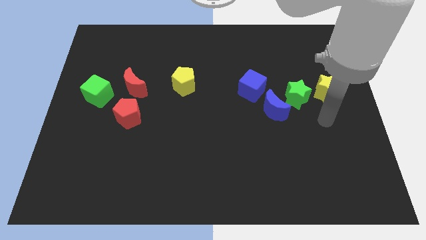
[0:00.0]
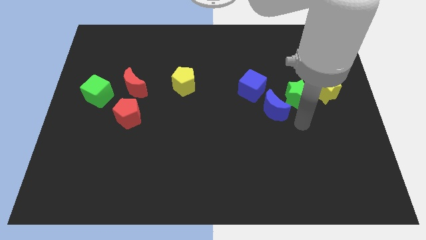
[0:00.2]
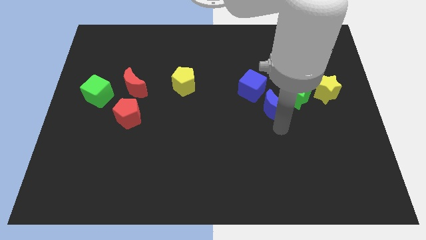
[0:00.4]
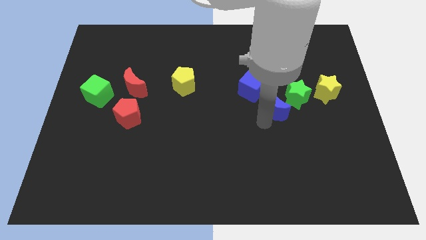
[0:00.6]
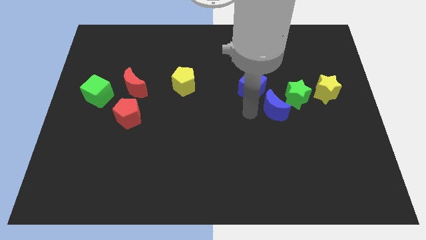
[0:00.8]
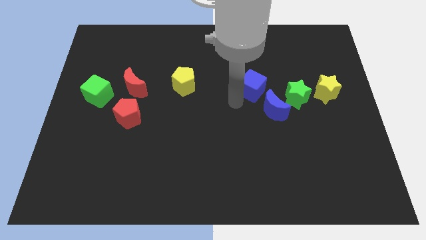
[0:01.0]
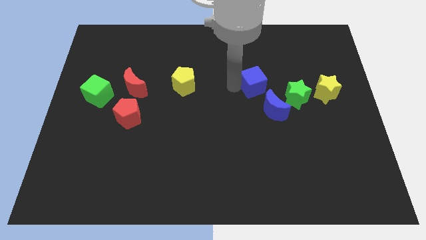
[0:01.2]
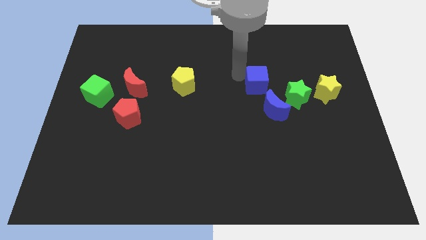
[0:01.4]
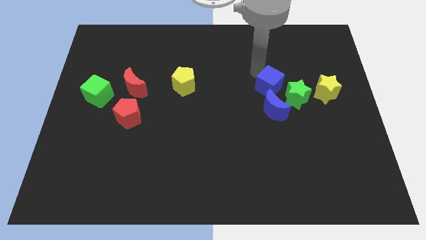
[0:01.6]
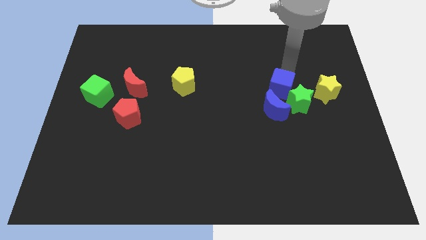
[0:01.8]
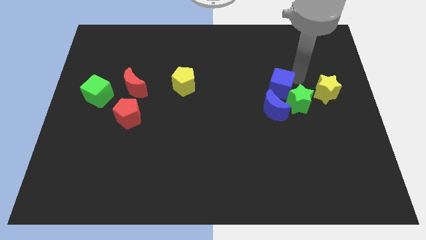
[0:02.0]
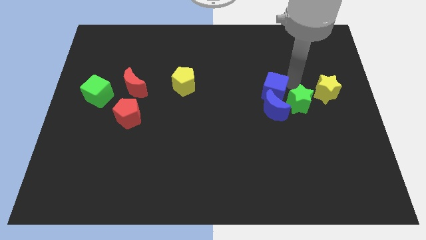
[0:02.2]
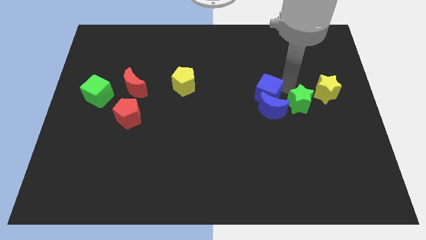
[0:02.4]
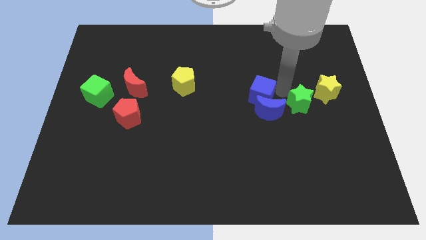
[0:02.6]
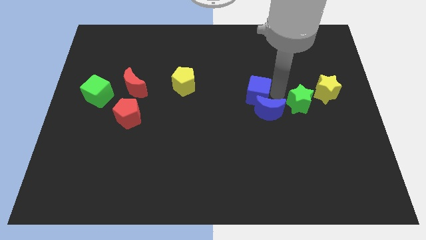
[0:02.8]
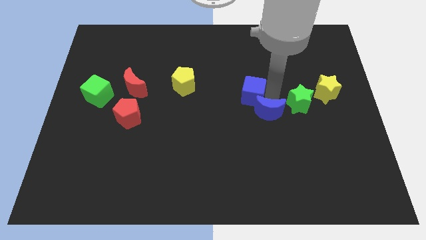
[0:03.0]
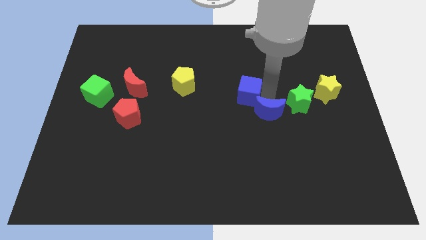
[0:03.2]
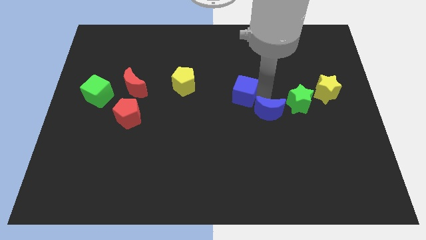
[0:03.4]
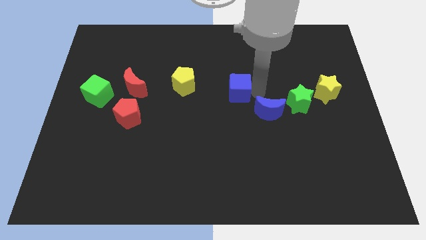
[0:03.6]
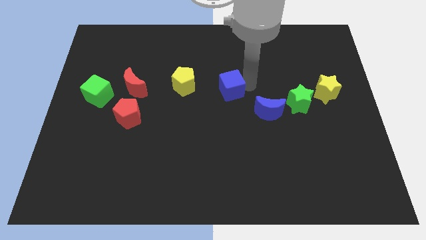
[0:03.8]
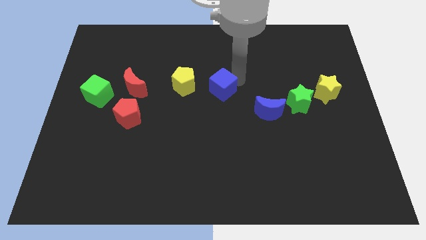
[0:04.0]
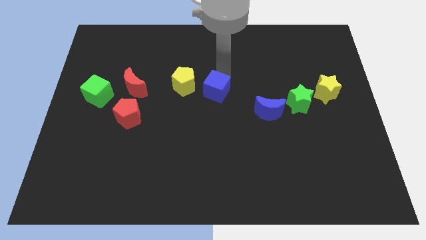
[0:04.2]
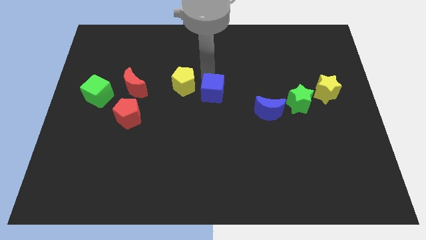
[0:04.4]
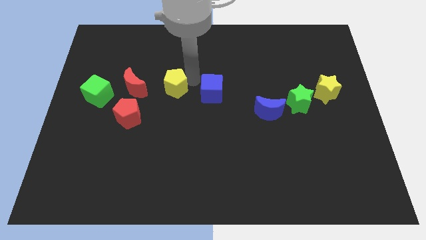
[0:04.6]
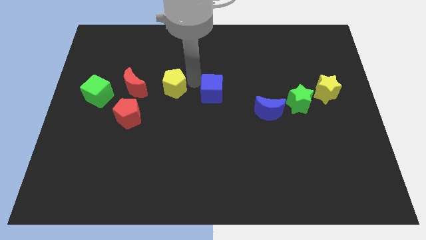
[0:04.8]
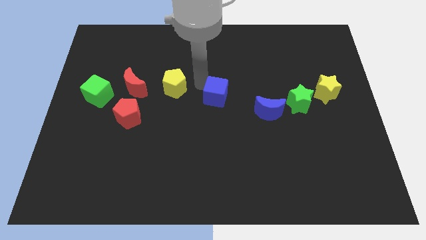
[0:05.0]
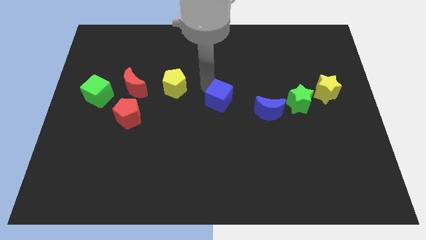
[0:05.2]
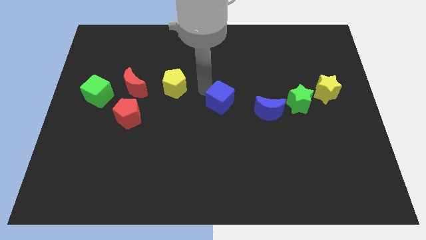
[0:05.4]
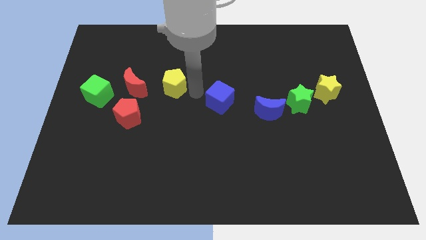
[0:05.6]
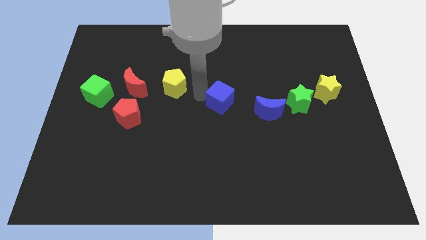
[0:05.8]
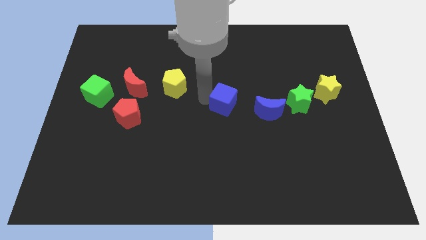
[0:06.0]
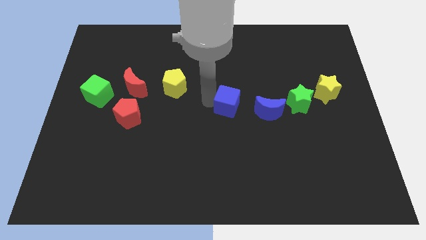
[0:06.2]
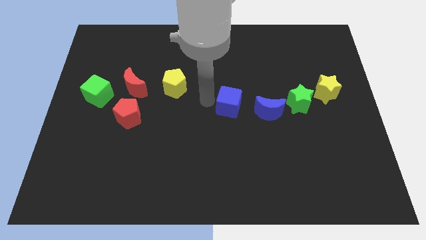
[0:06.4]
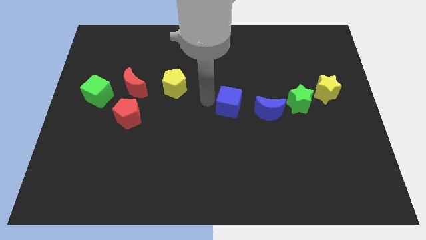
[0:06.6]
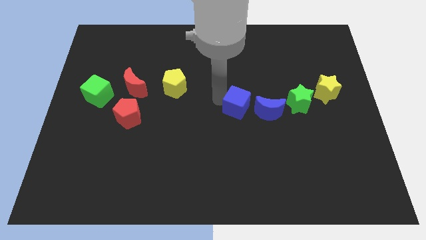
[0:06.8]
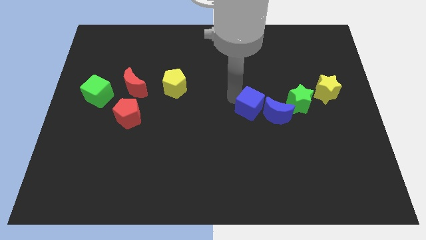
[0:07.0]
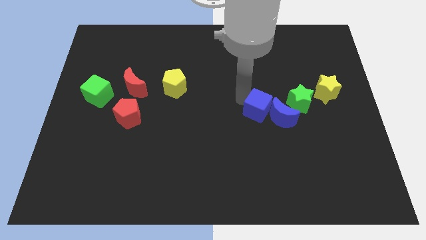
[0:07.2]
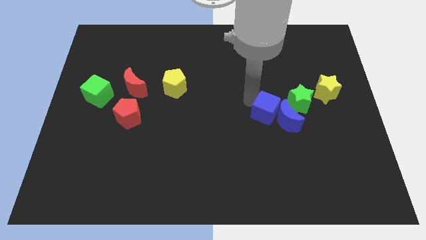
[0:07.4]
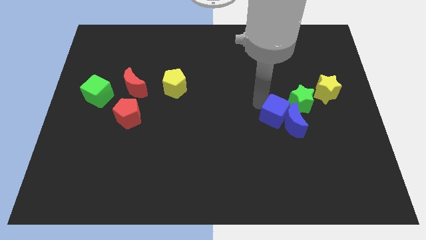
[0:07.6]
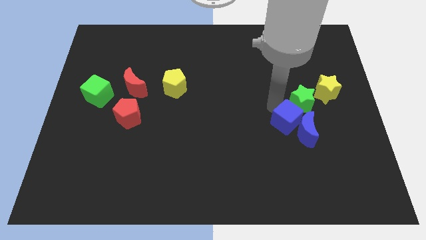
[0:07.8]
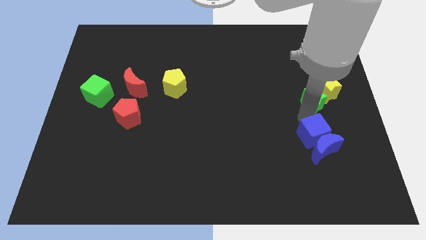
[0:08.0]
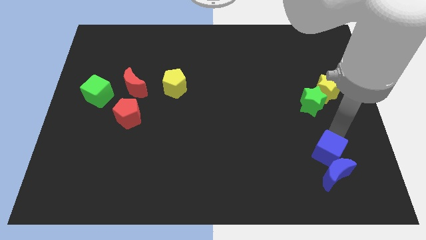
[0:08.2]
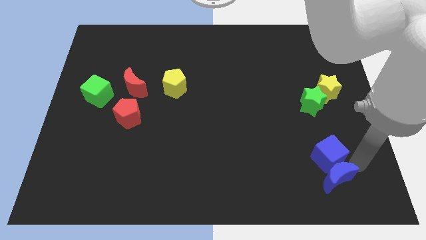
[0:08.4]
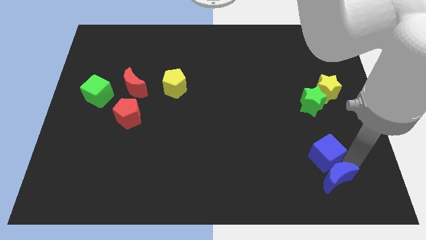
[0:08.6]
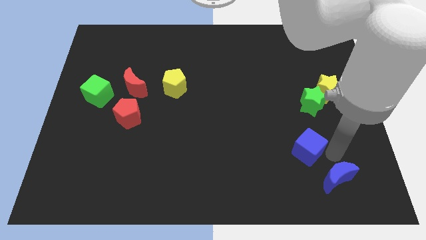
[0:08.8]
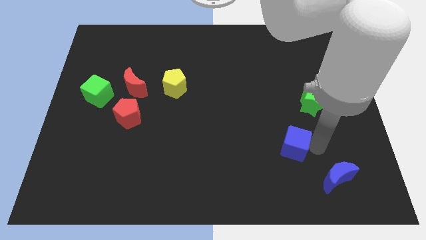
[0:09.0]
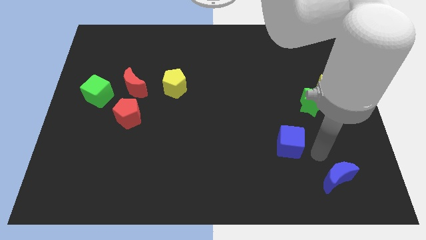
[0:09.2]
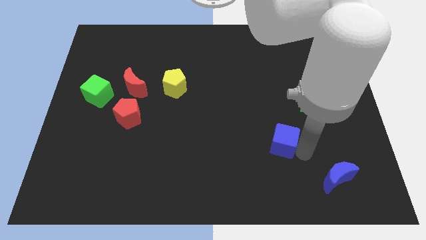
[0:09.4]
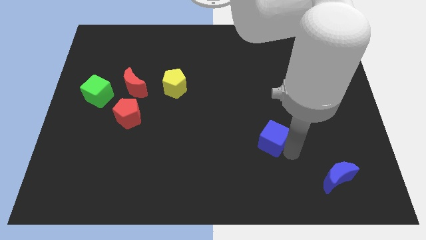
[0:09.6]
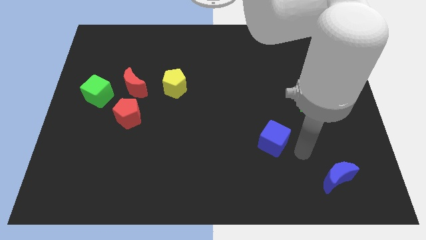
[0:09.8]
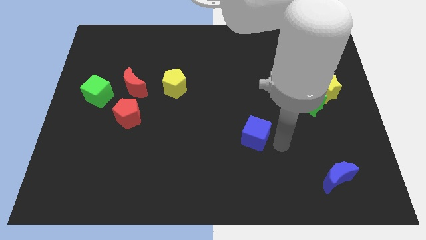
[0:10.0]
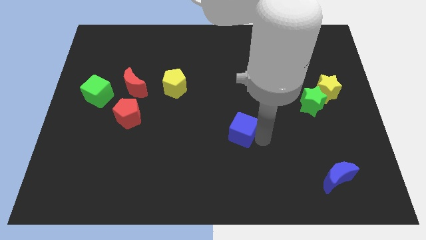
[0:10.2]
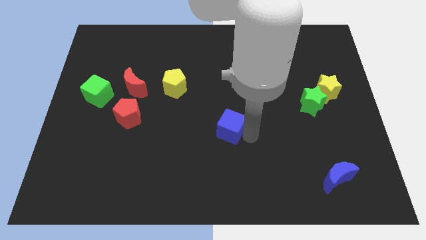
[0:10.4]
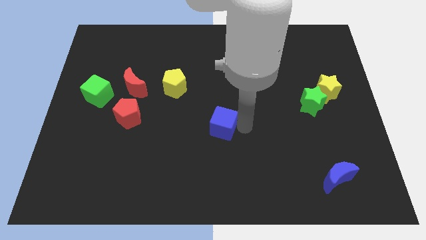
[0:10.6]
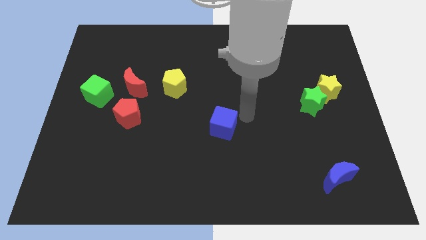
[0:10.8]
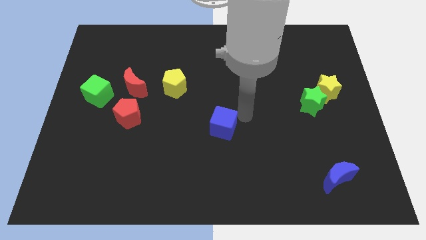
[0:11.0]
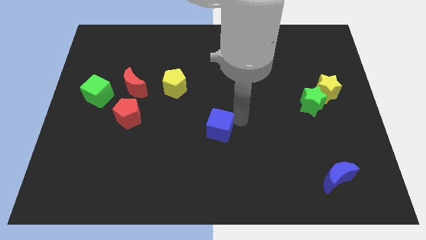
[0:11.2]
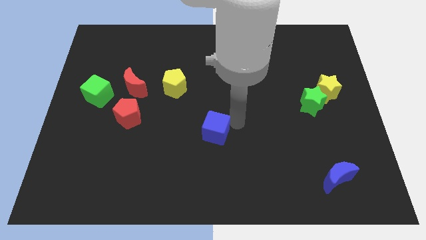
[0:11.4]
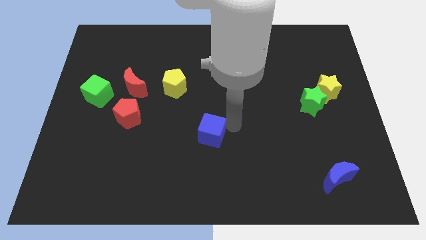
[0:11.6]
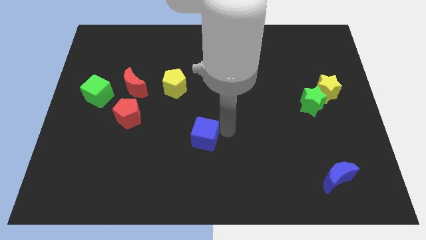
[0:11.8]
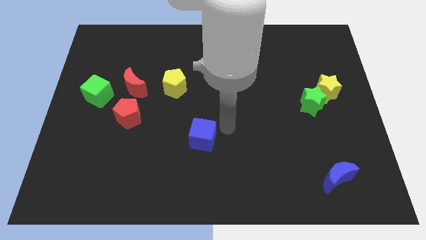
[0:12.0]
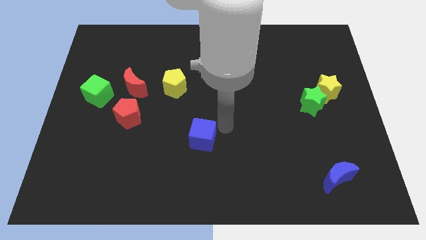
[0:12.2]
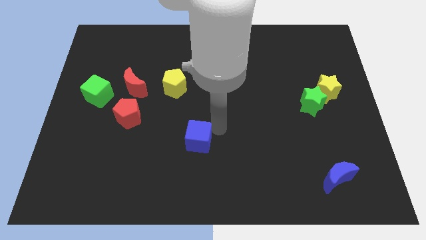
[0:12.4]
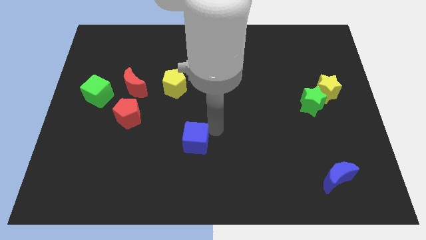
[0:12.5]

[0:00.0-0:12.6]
slide the blue cube down and to the left diagonally

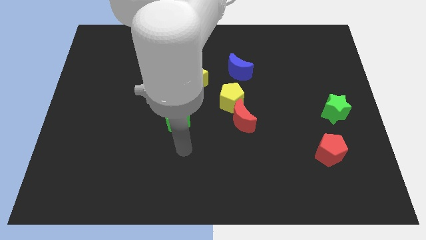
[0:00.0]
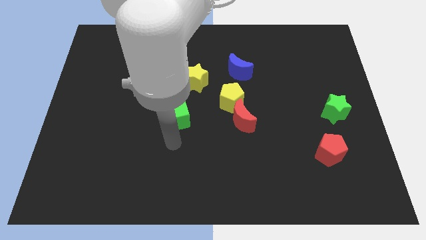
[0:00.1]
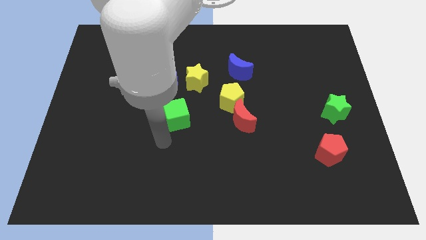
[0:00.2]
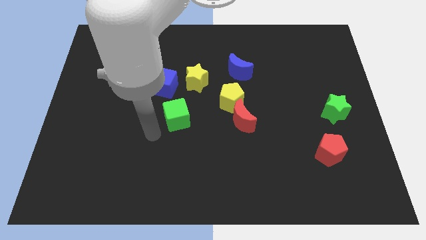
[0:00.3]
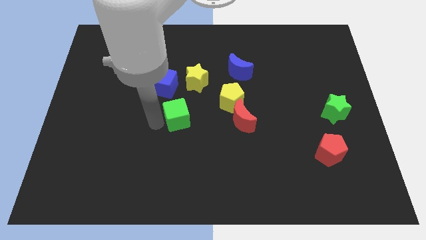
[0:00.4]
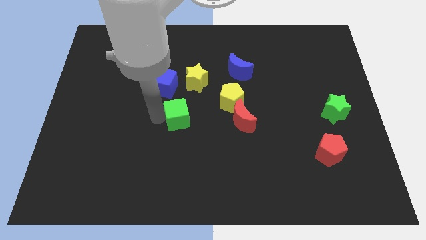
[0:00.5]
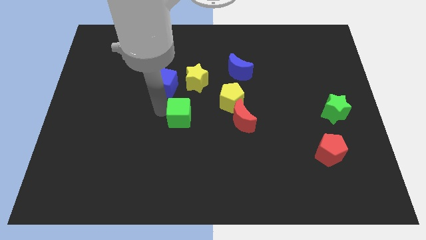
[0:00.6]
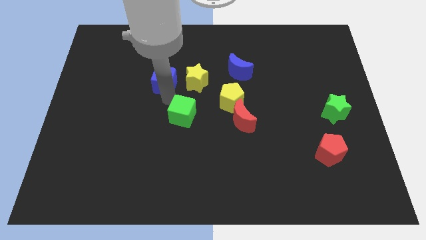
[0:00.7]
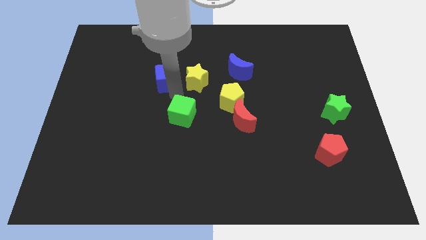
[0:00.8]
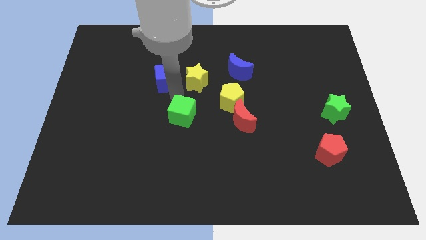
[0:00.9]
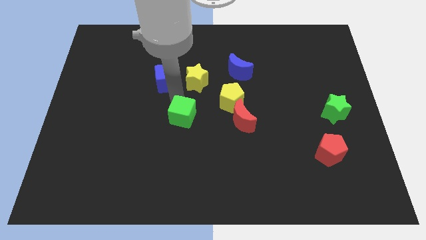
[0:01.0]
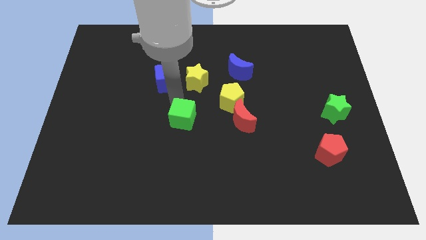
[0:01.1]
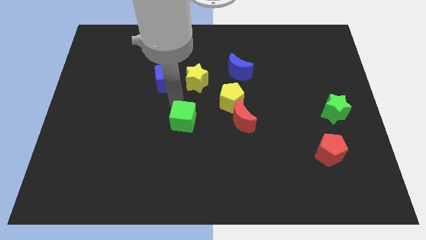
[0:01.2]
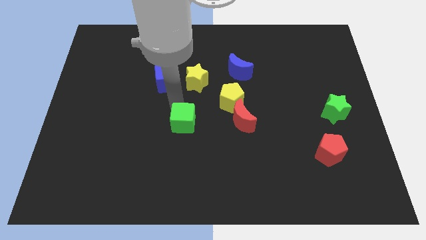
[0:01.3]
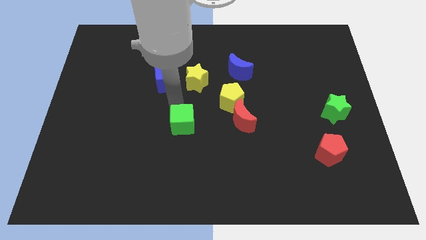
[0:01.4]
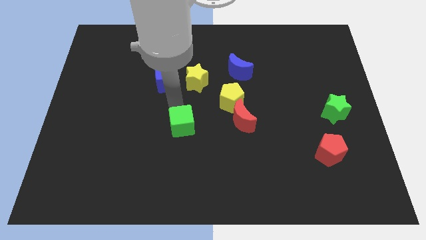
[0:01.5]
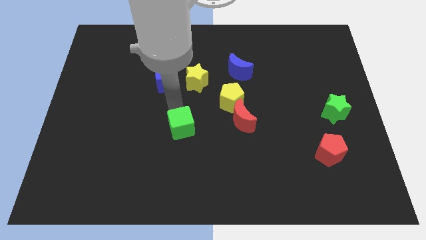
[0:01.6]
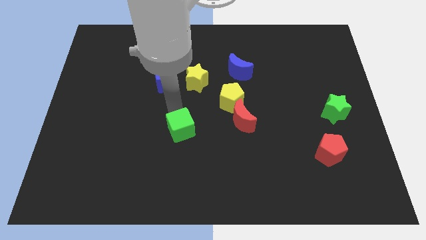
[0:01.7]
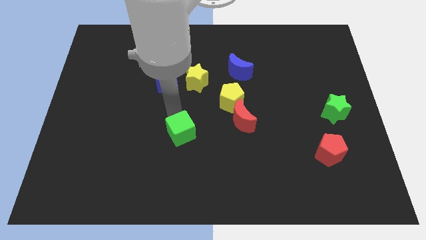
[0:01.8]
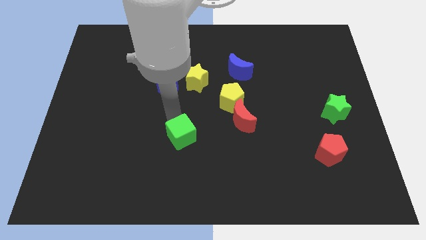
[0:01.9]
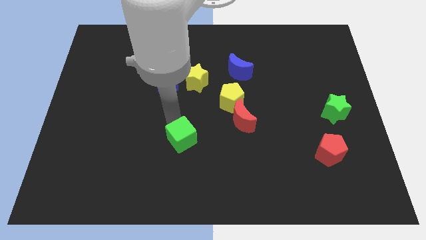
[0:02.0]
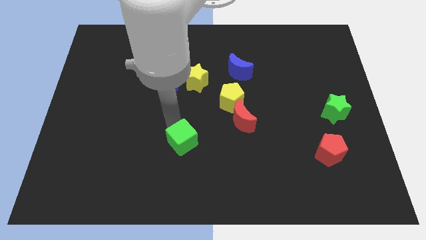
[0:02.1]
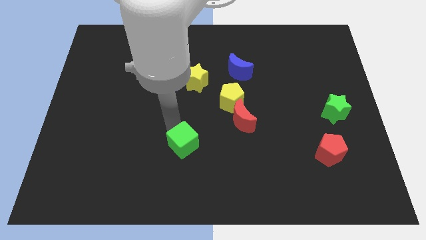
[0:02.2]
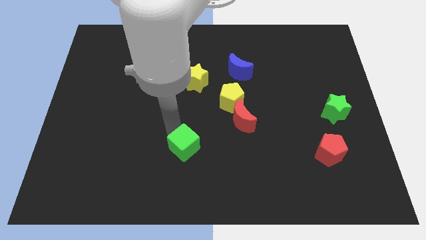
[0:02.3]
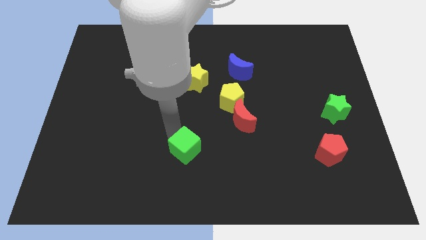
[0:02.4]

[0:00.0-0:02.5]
move the green cube slightly down and right diagonally
